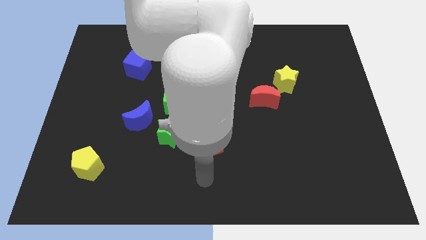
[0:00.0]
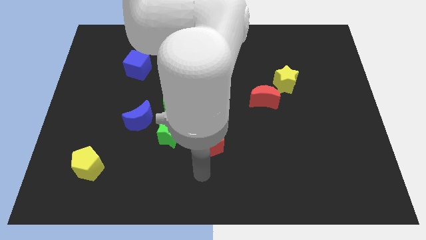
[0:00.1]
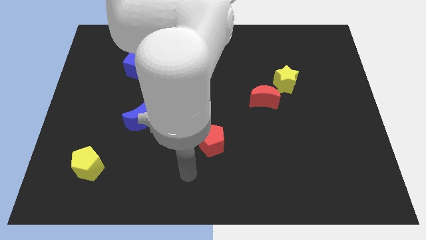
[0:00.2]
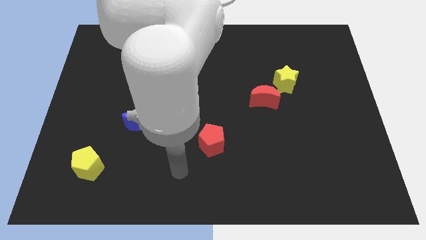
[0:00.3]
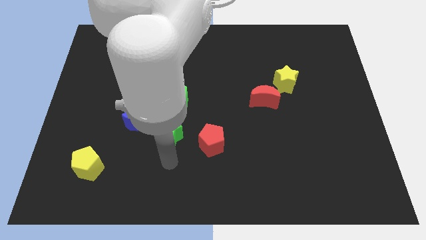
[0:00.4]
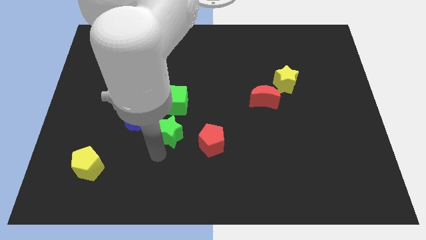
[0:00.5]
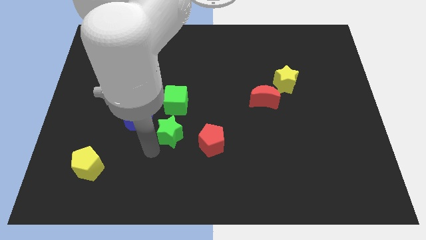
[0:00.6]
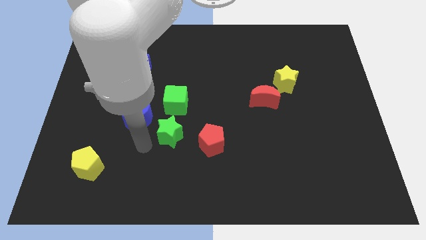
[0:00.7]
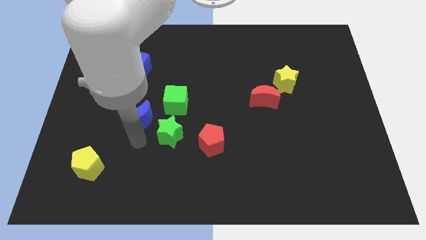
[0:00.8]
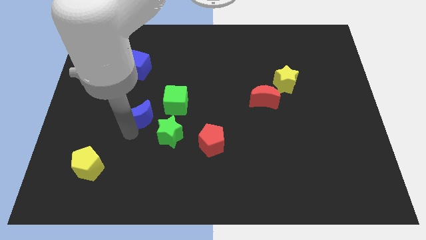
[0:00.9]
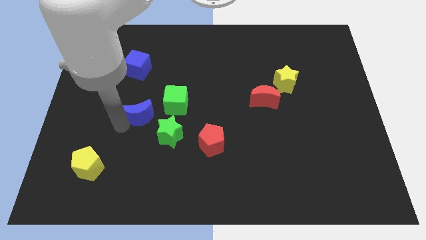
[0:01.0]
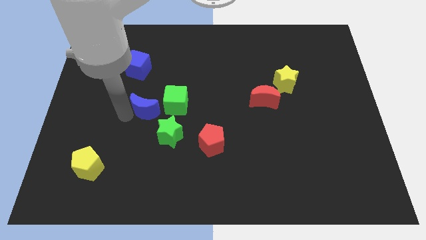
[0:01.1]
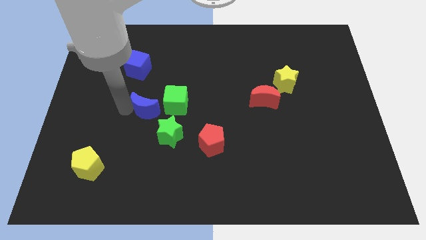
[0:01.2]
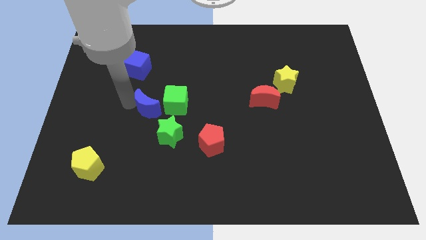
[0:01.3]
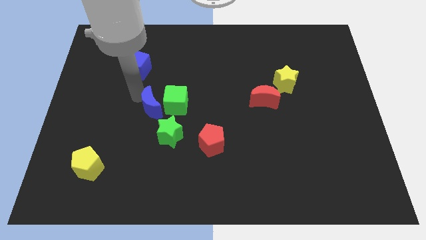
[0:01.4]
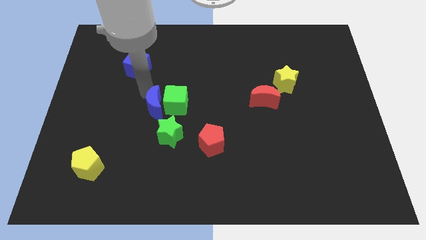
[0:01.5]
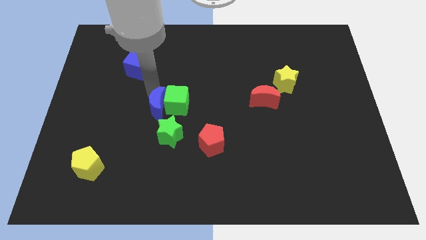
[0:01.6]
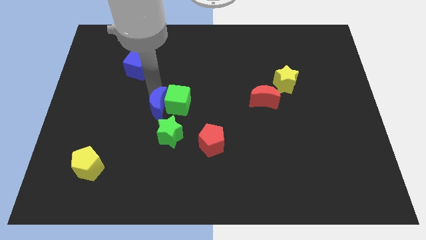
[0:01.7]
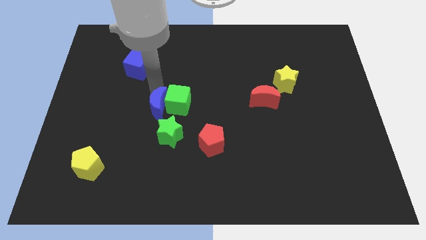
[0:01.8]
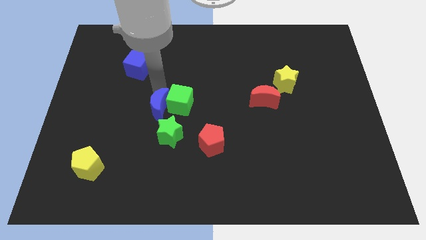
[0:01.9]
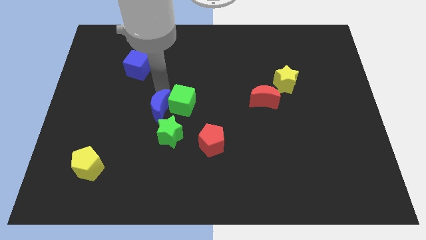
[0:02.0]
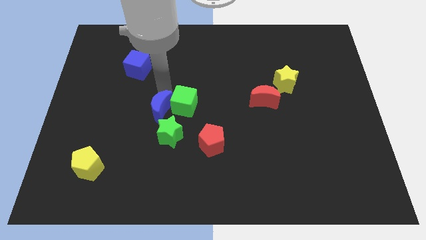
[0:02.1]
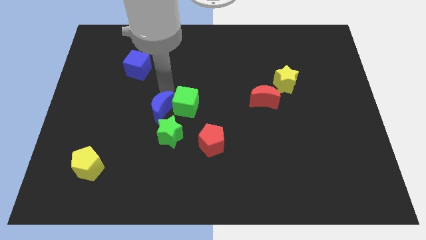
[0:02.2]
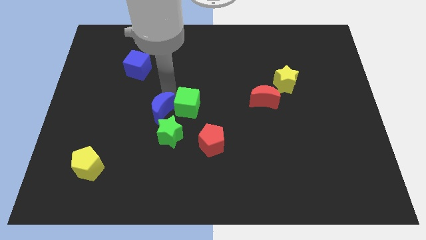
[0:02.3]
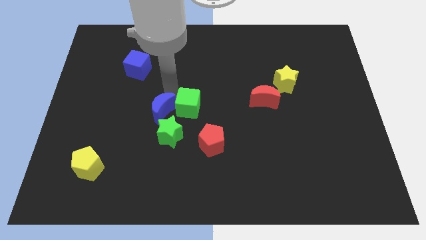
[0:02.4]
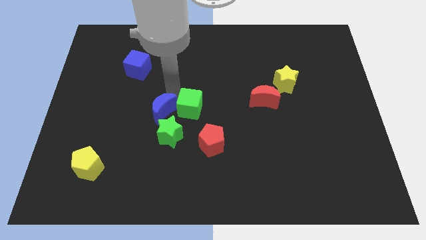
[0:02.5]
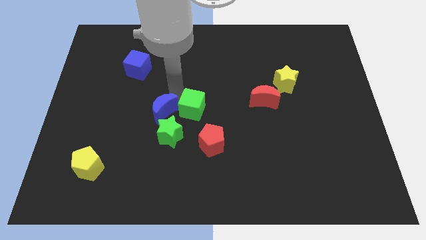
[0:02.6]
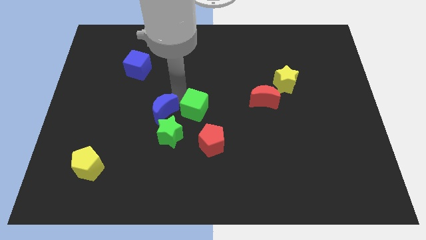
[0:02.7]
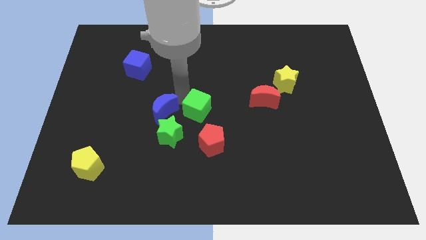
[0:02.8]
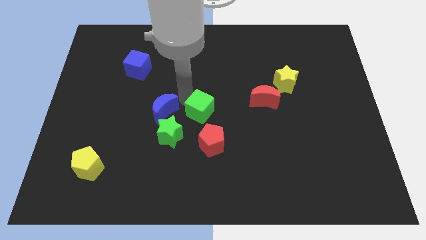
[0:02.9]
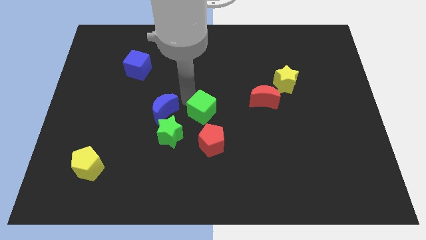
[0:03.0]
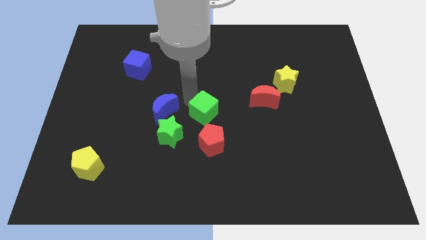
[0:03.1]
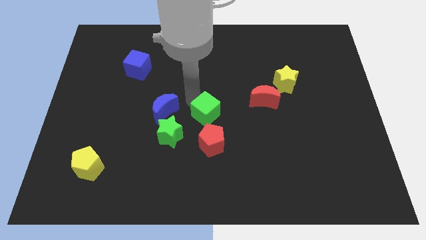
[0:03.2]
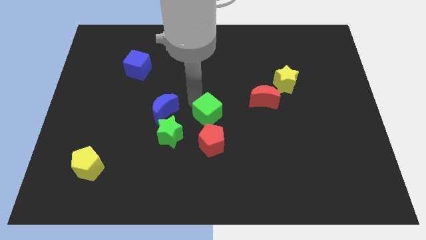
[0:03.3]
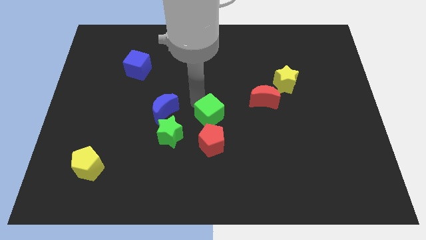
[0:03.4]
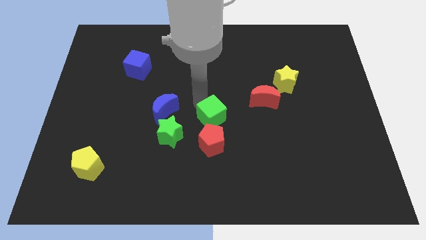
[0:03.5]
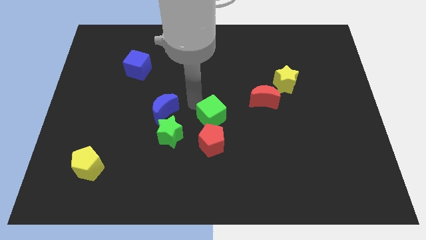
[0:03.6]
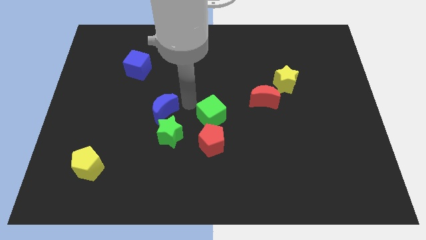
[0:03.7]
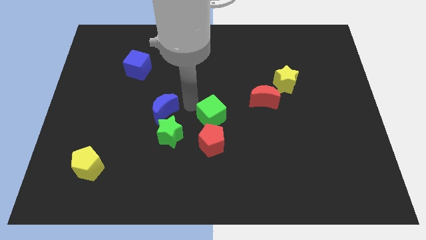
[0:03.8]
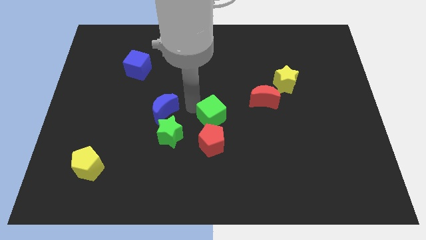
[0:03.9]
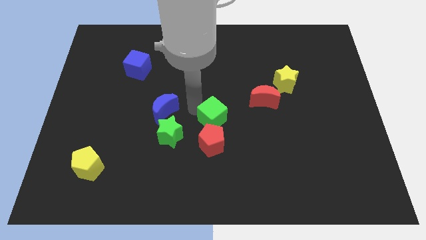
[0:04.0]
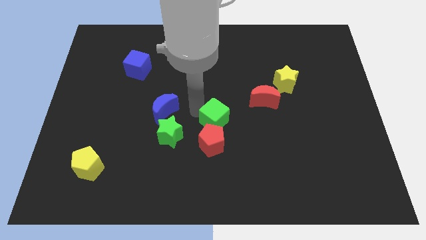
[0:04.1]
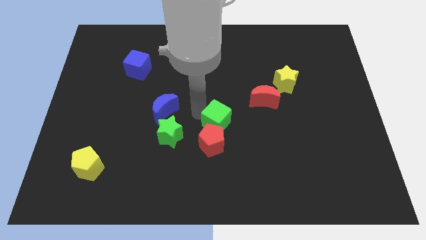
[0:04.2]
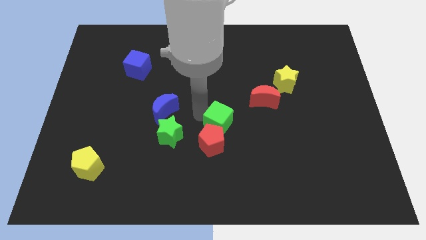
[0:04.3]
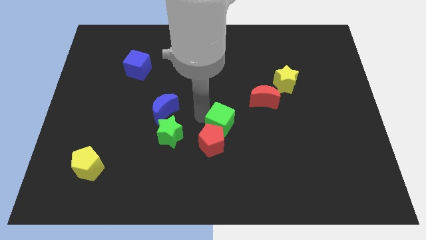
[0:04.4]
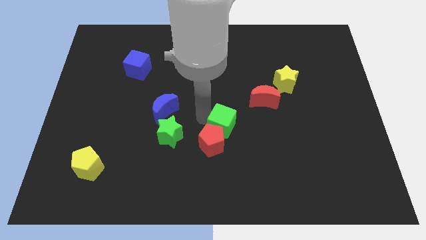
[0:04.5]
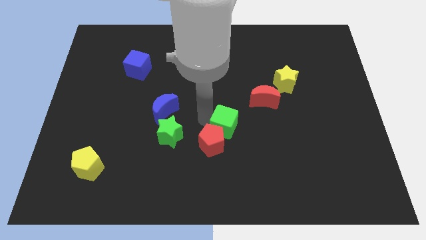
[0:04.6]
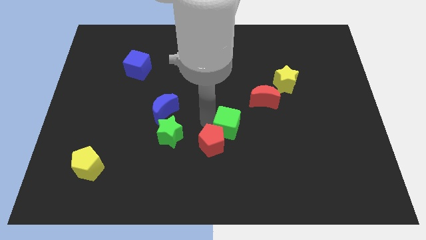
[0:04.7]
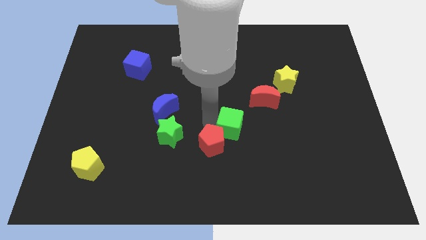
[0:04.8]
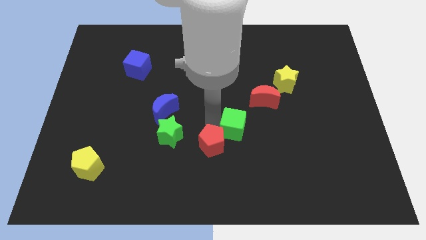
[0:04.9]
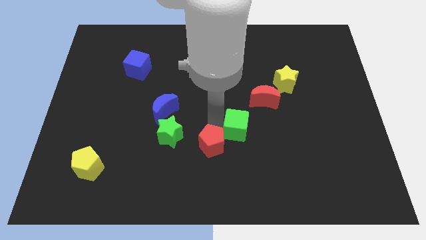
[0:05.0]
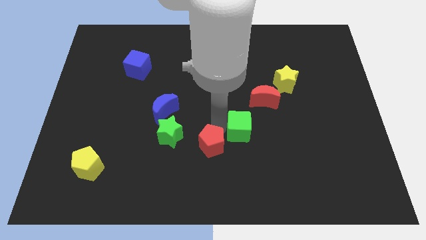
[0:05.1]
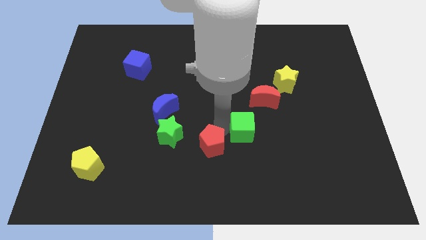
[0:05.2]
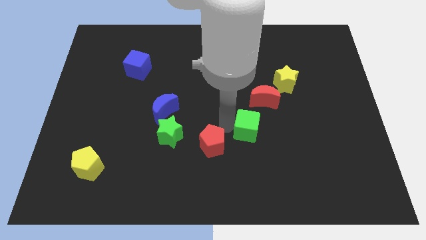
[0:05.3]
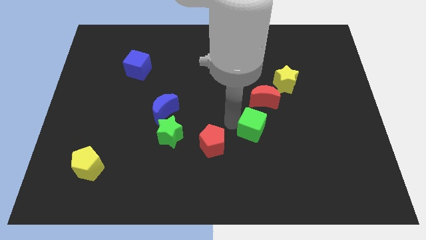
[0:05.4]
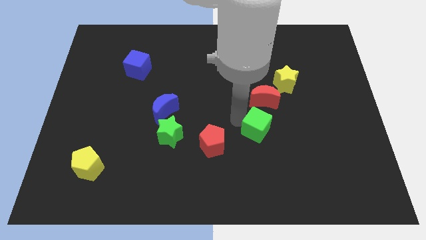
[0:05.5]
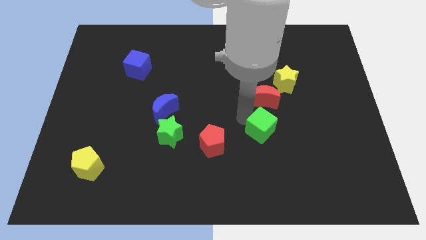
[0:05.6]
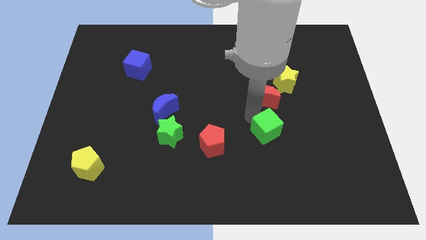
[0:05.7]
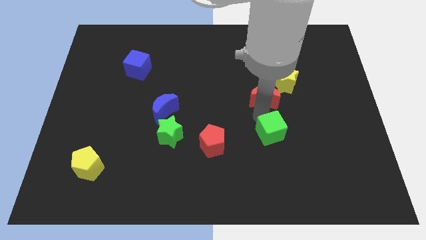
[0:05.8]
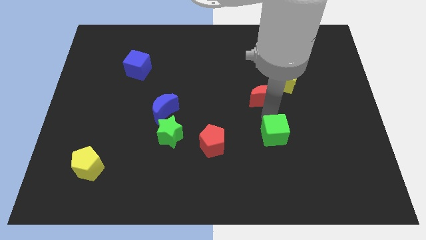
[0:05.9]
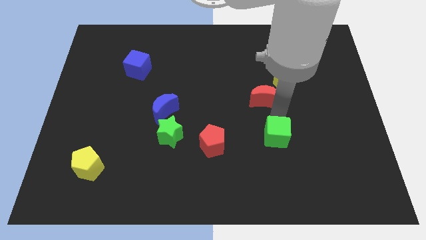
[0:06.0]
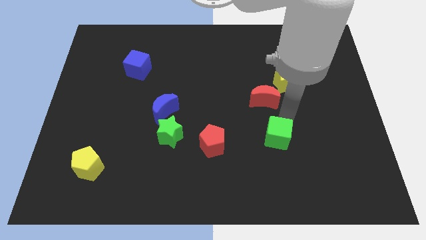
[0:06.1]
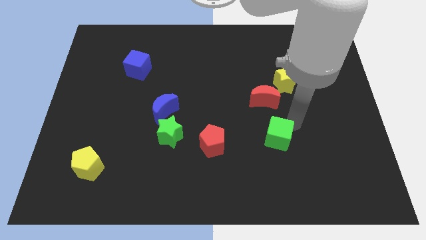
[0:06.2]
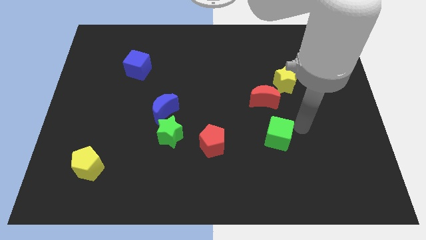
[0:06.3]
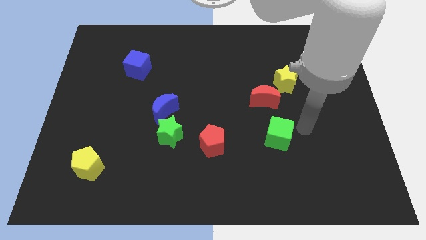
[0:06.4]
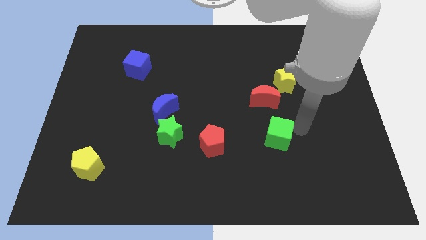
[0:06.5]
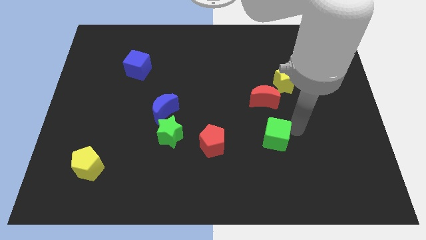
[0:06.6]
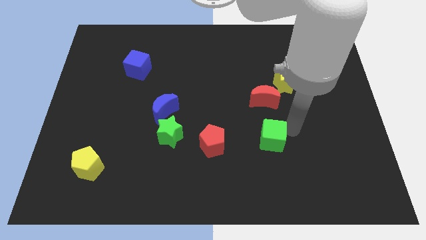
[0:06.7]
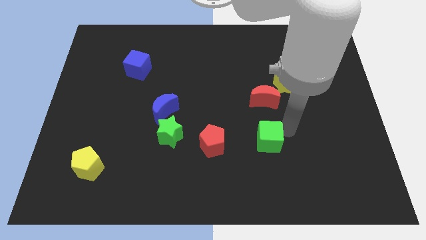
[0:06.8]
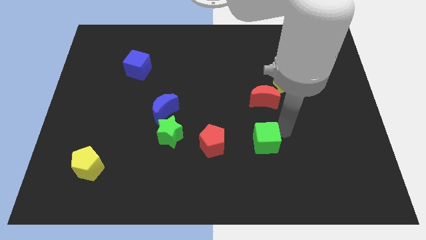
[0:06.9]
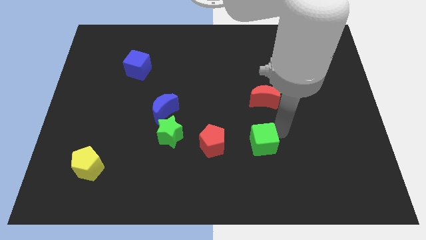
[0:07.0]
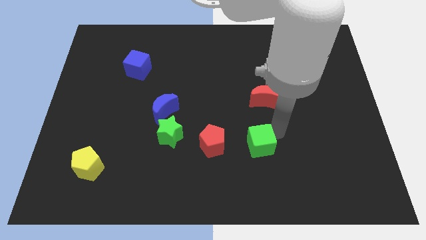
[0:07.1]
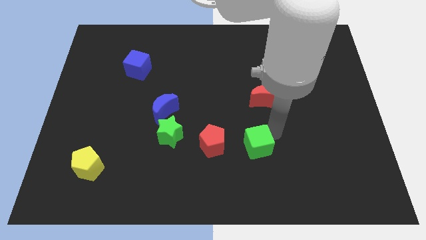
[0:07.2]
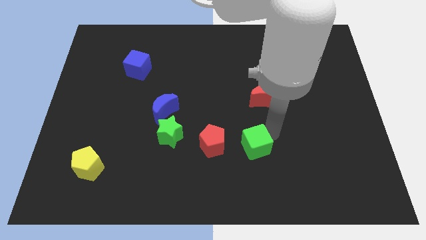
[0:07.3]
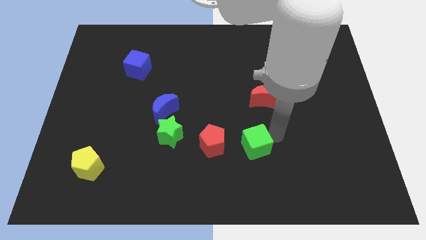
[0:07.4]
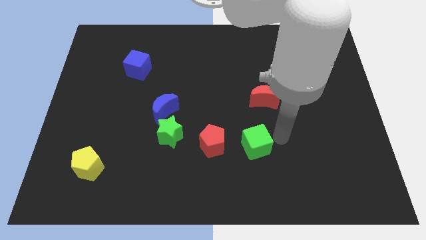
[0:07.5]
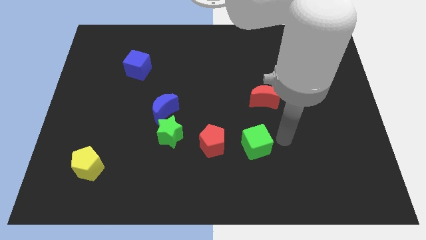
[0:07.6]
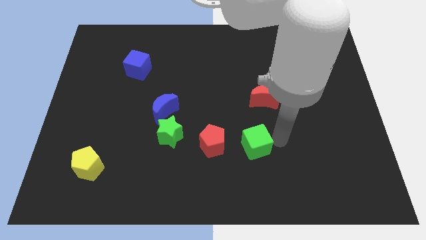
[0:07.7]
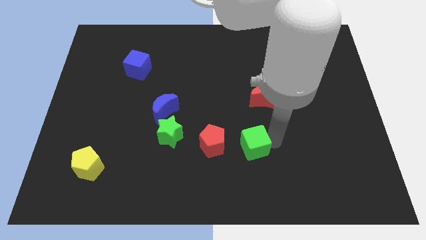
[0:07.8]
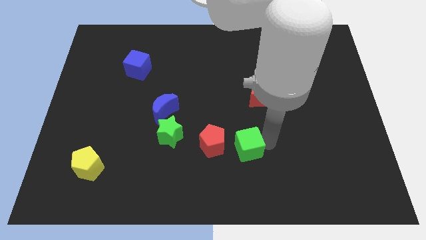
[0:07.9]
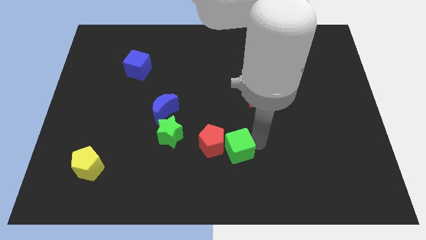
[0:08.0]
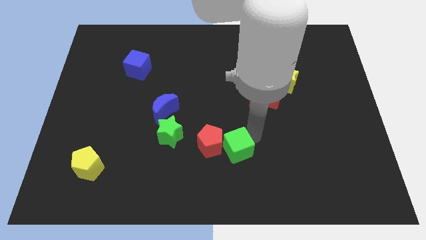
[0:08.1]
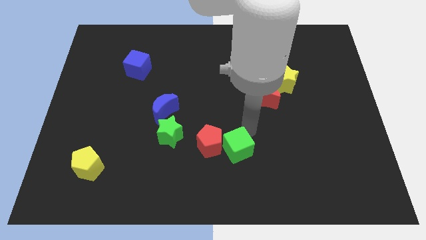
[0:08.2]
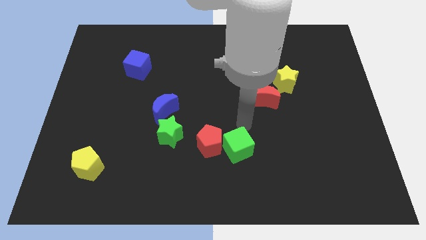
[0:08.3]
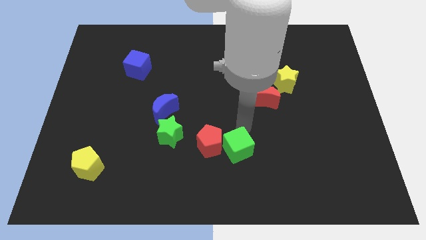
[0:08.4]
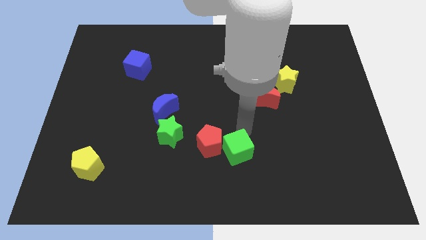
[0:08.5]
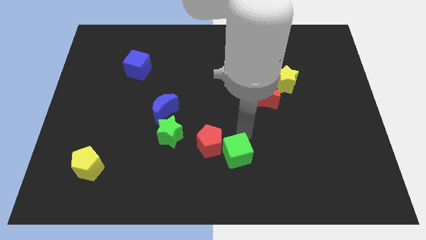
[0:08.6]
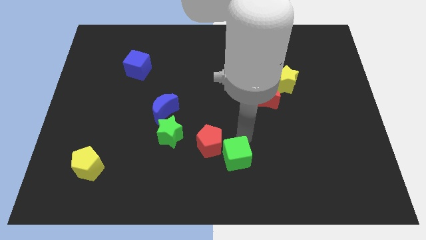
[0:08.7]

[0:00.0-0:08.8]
put the green cube to the bottom side
